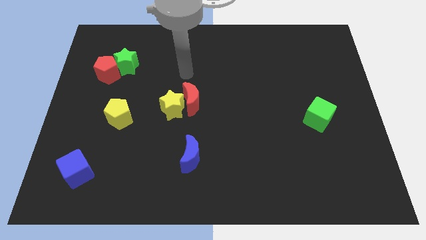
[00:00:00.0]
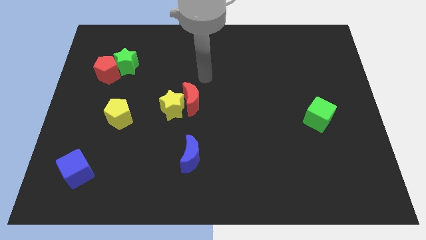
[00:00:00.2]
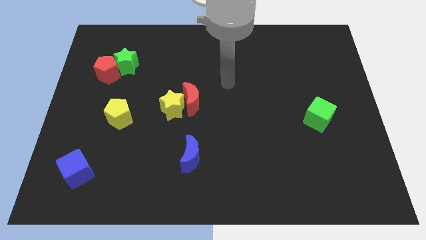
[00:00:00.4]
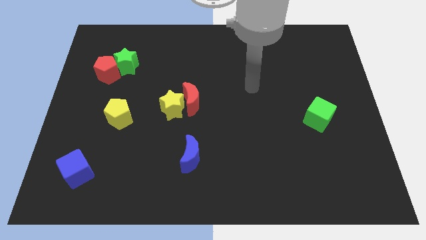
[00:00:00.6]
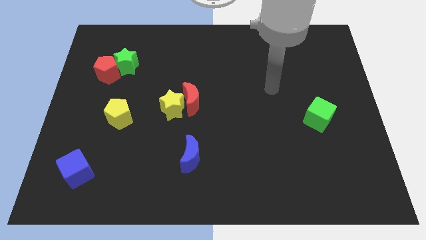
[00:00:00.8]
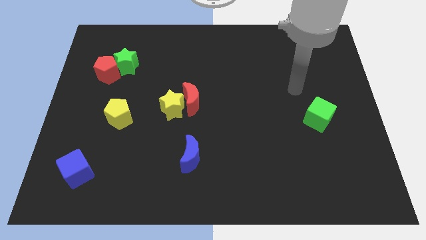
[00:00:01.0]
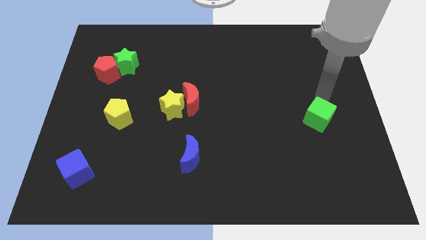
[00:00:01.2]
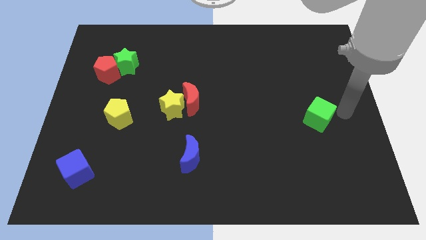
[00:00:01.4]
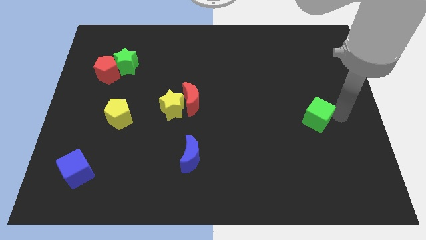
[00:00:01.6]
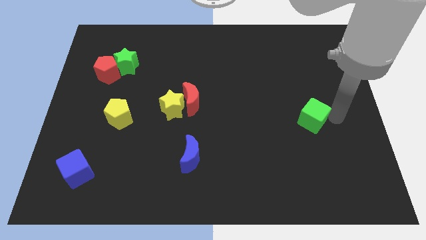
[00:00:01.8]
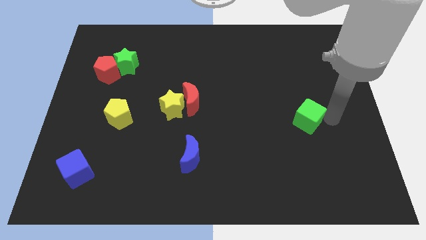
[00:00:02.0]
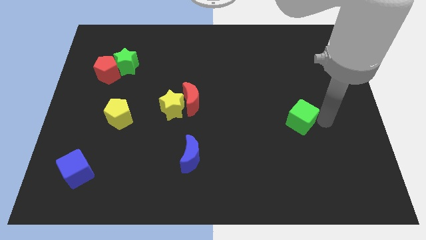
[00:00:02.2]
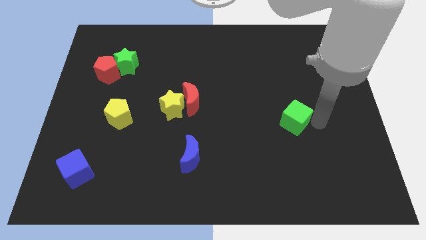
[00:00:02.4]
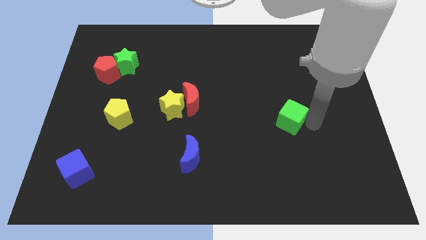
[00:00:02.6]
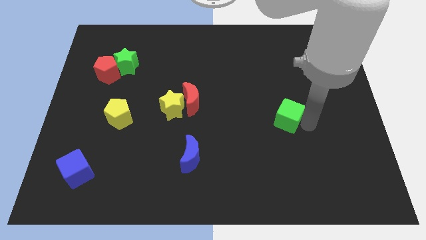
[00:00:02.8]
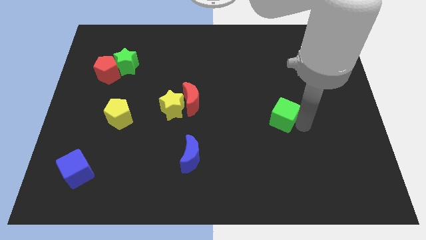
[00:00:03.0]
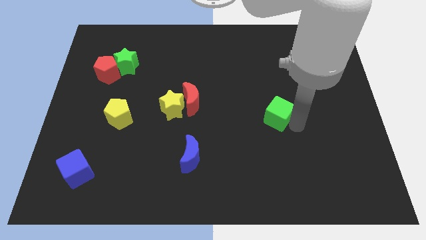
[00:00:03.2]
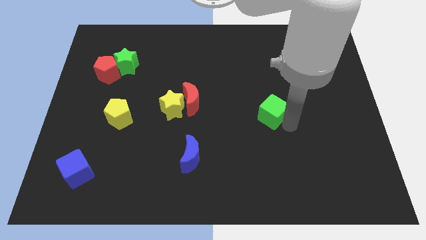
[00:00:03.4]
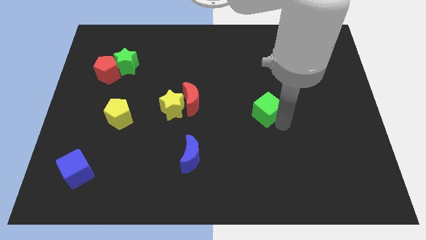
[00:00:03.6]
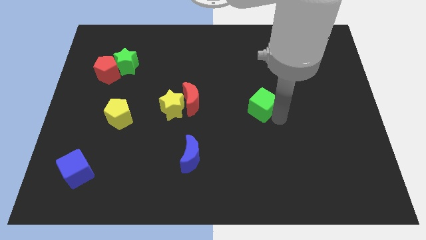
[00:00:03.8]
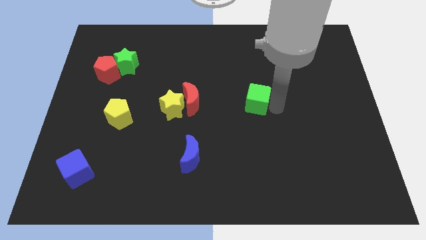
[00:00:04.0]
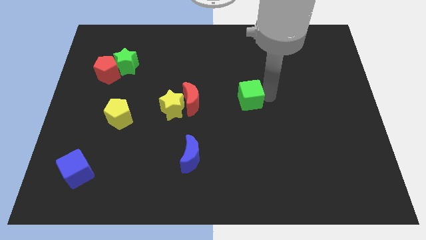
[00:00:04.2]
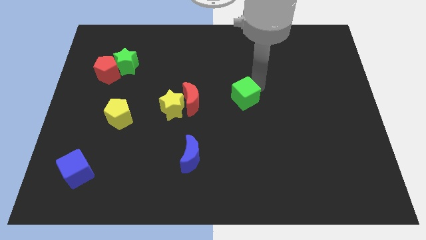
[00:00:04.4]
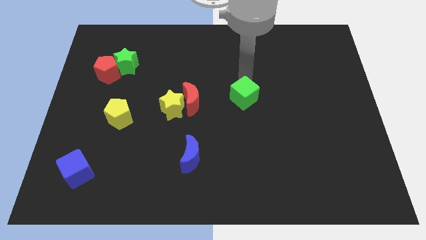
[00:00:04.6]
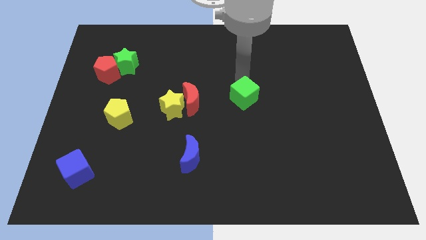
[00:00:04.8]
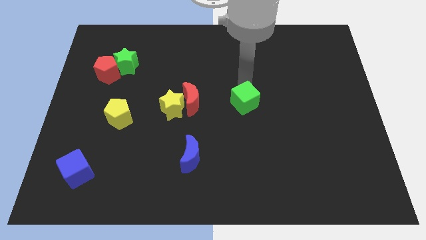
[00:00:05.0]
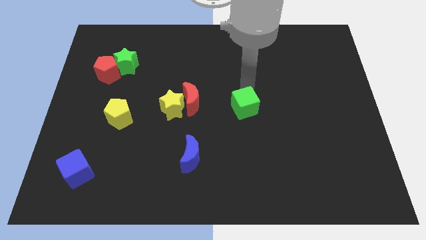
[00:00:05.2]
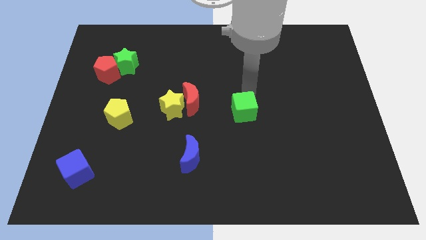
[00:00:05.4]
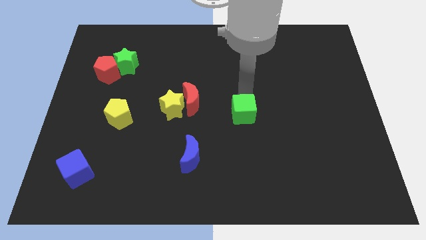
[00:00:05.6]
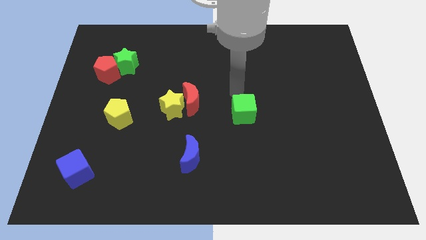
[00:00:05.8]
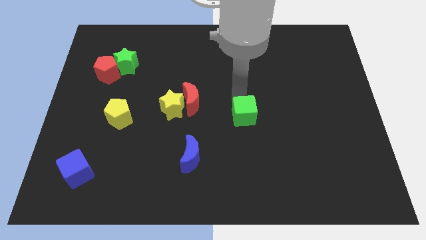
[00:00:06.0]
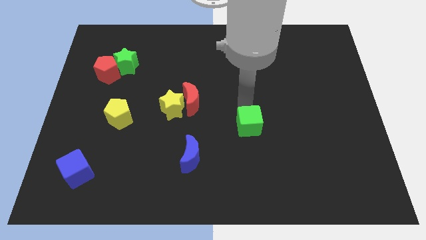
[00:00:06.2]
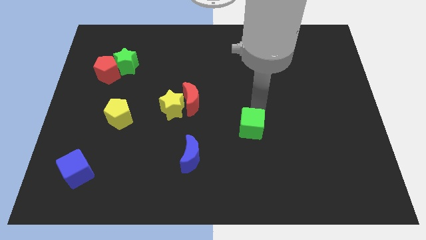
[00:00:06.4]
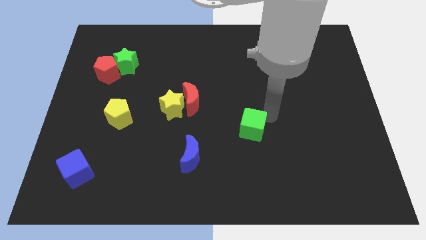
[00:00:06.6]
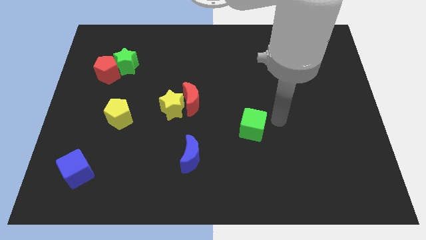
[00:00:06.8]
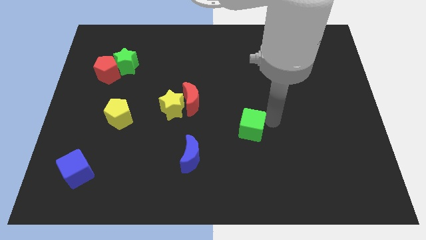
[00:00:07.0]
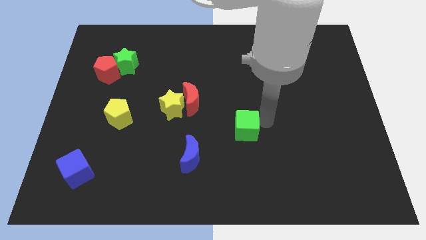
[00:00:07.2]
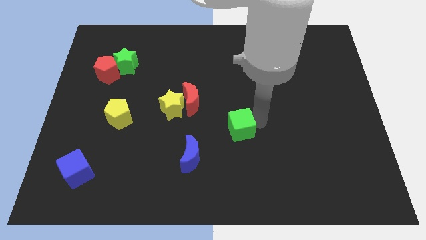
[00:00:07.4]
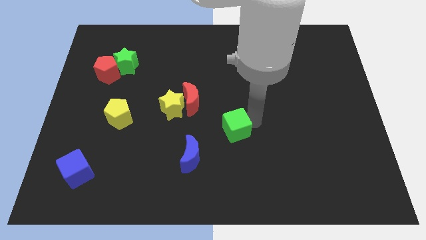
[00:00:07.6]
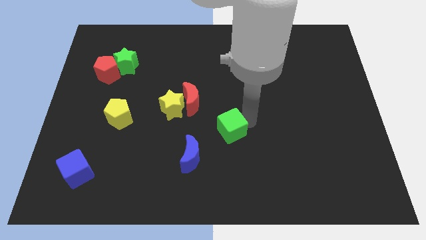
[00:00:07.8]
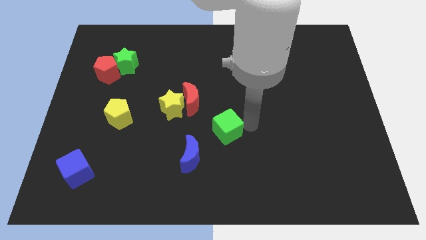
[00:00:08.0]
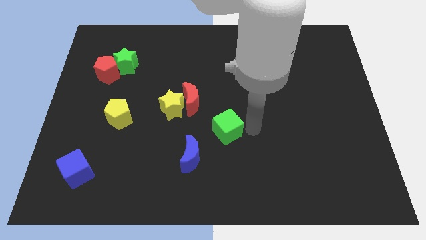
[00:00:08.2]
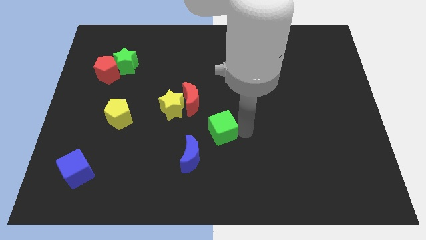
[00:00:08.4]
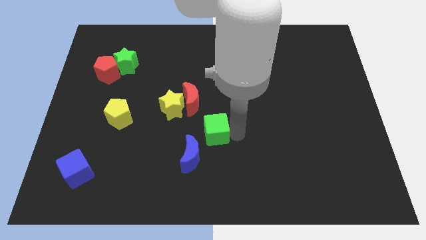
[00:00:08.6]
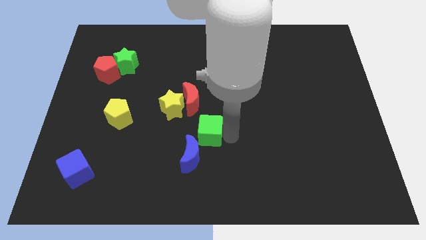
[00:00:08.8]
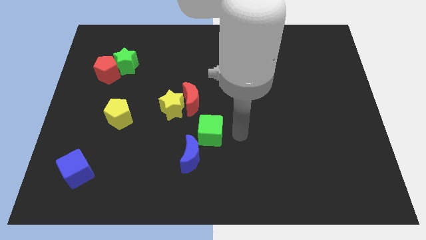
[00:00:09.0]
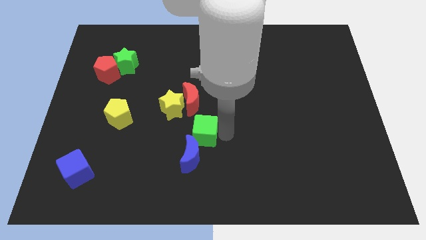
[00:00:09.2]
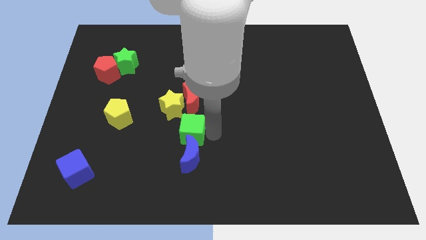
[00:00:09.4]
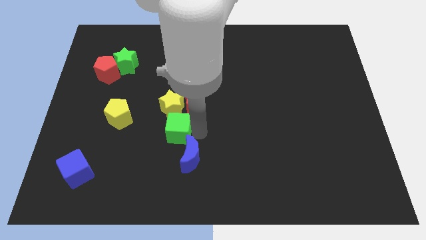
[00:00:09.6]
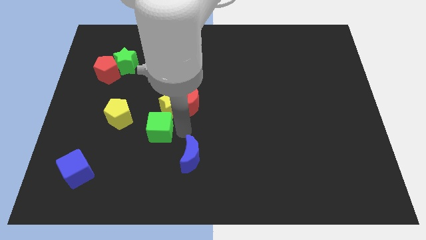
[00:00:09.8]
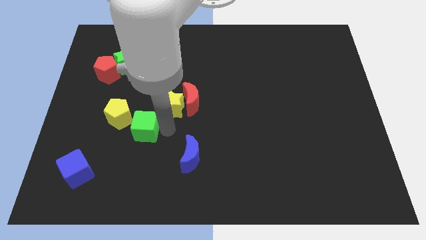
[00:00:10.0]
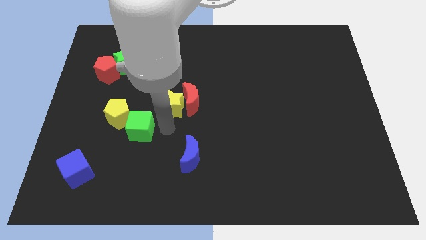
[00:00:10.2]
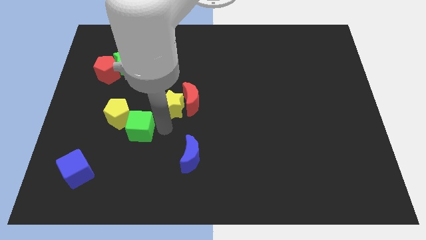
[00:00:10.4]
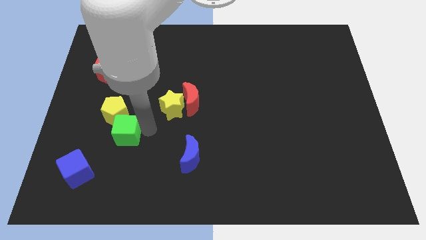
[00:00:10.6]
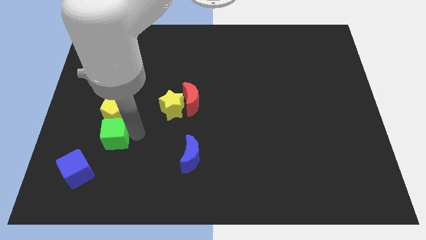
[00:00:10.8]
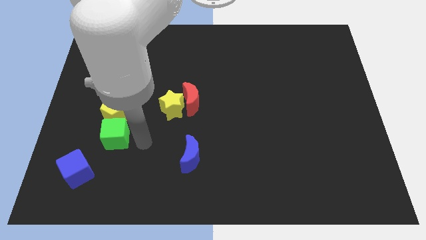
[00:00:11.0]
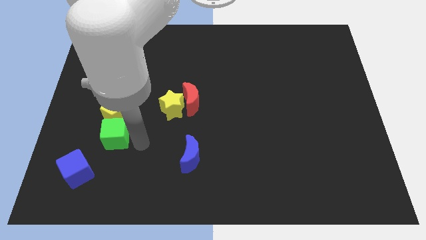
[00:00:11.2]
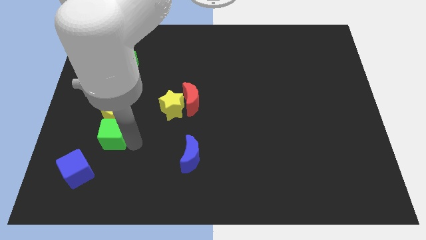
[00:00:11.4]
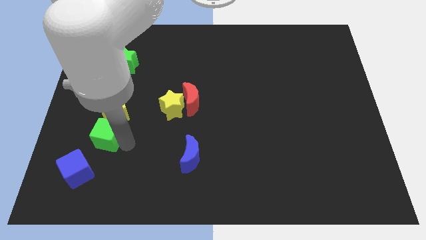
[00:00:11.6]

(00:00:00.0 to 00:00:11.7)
slide the green cube above the blue cube

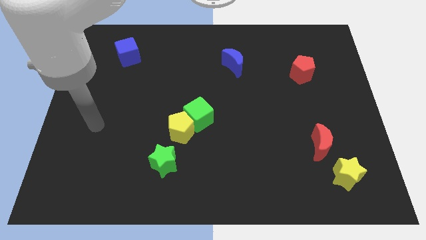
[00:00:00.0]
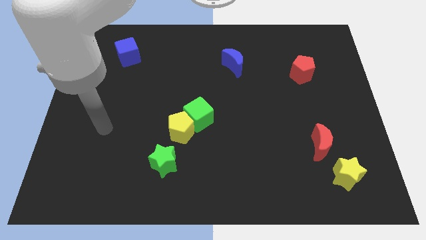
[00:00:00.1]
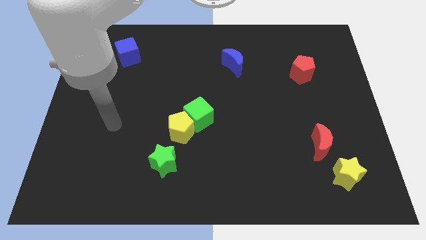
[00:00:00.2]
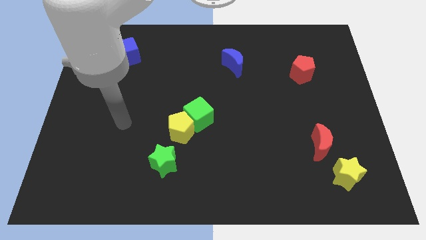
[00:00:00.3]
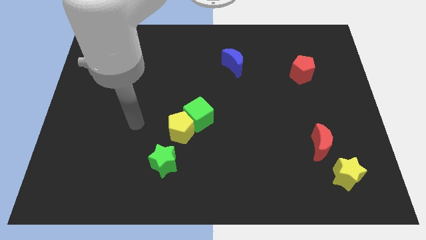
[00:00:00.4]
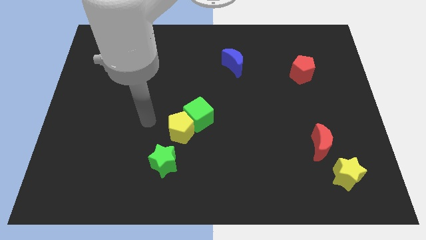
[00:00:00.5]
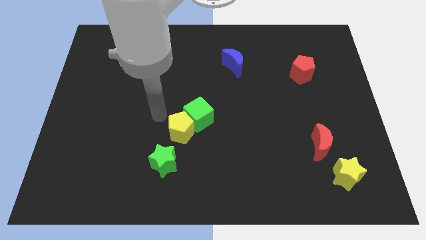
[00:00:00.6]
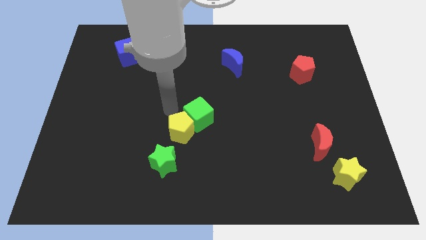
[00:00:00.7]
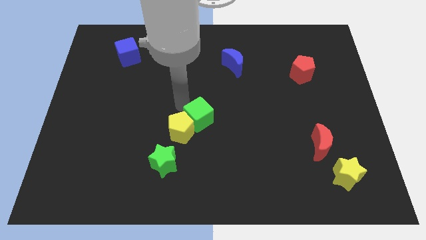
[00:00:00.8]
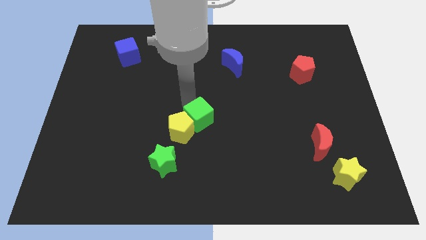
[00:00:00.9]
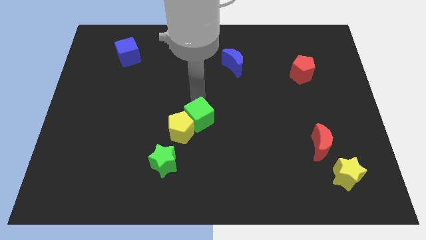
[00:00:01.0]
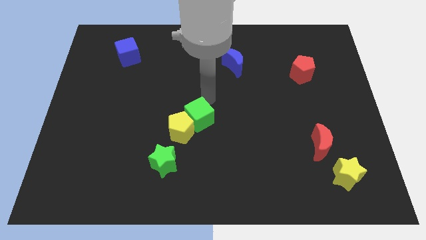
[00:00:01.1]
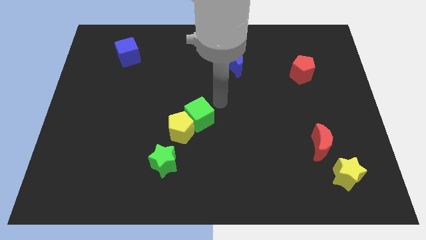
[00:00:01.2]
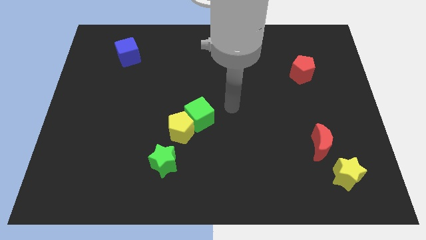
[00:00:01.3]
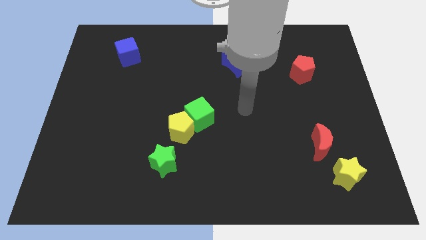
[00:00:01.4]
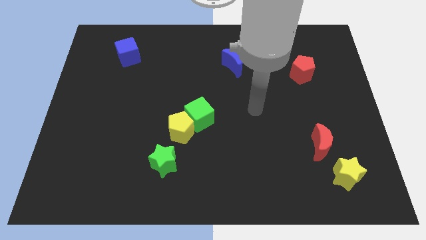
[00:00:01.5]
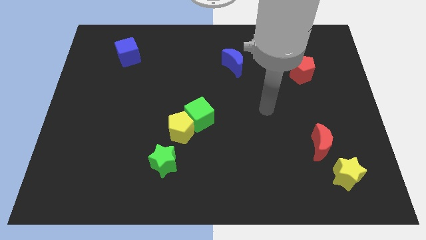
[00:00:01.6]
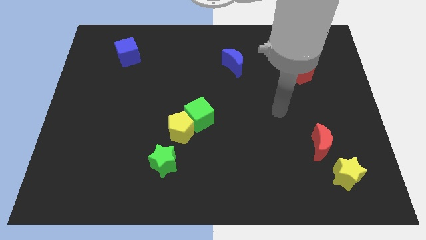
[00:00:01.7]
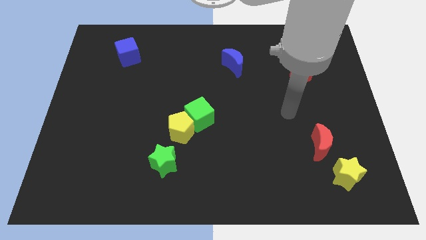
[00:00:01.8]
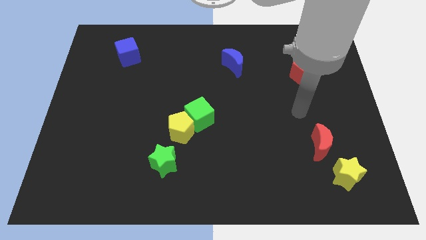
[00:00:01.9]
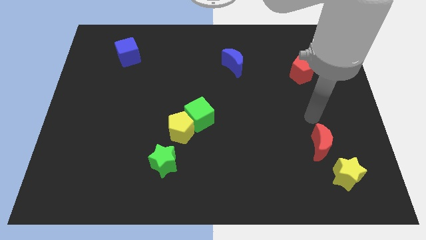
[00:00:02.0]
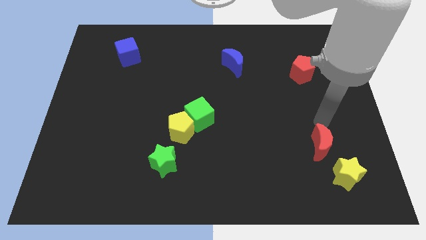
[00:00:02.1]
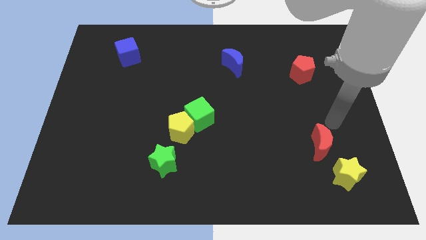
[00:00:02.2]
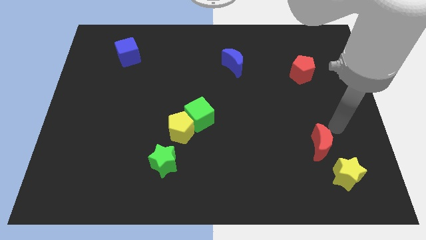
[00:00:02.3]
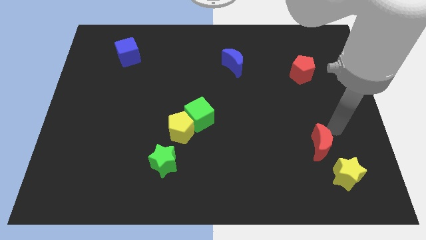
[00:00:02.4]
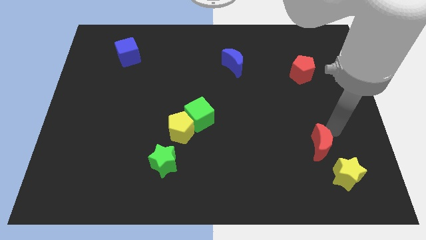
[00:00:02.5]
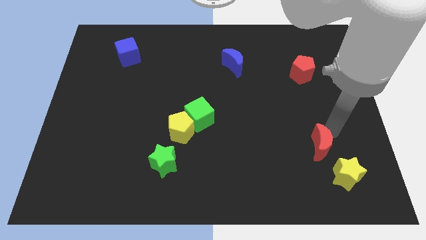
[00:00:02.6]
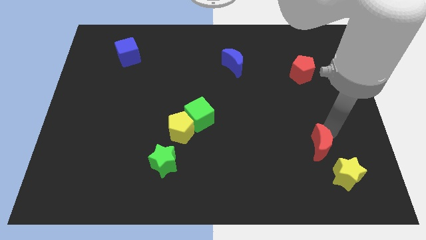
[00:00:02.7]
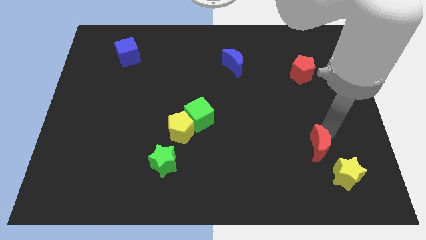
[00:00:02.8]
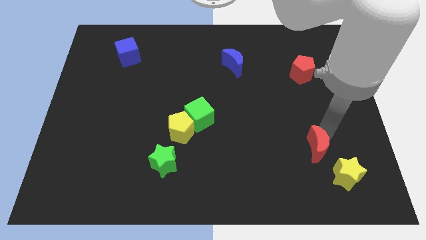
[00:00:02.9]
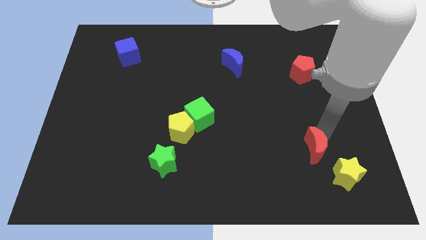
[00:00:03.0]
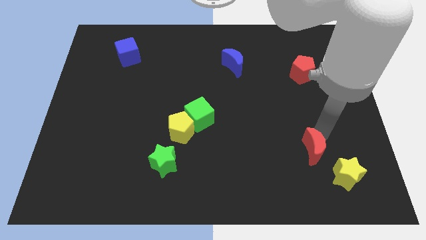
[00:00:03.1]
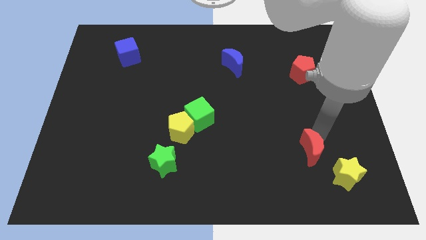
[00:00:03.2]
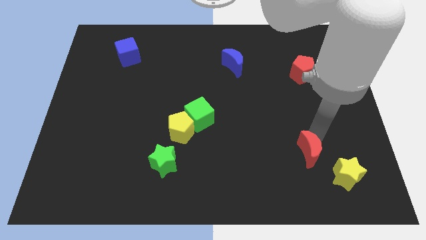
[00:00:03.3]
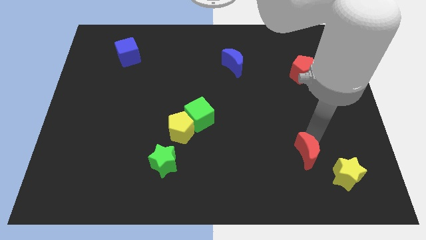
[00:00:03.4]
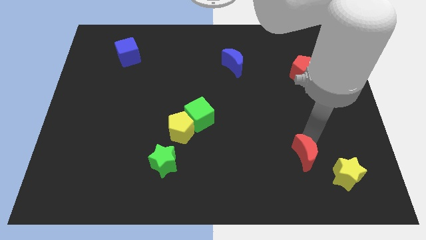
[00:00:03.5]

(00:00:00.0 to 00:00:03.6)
put the red moon to the left side of the yellow star
